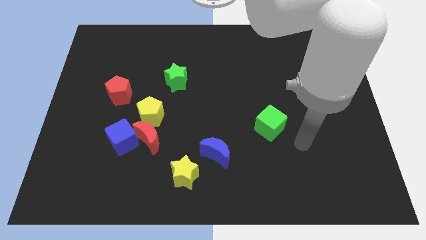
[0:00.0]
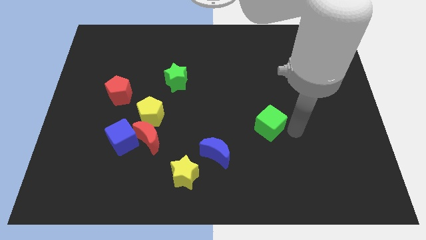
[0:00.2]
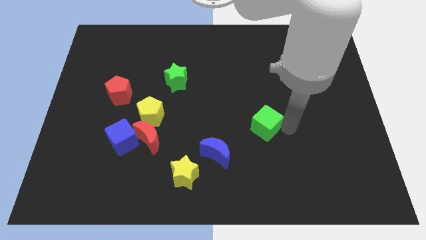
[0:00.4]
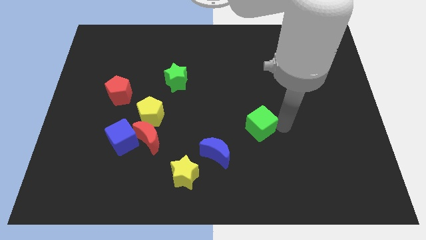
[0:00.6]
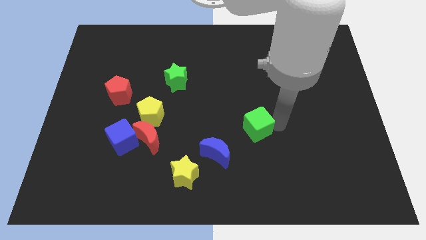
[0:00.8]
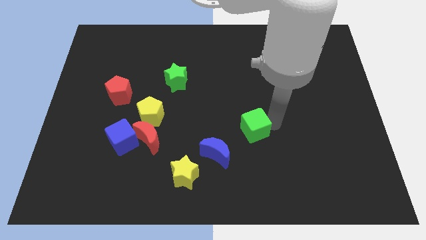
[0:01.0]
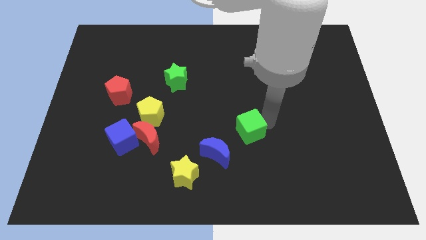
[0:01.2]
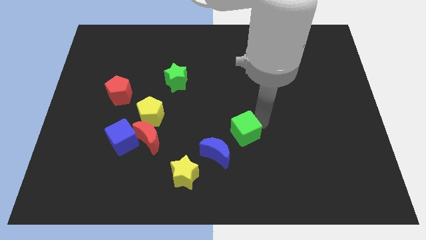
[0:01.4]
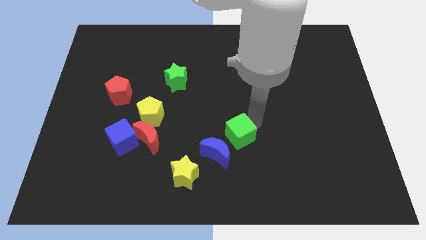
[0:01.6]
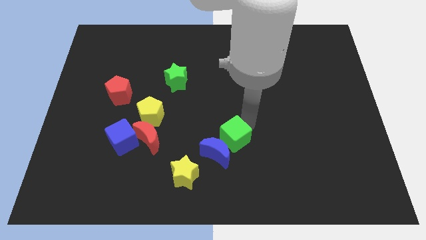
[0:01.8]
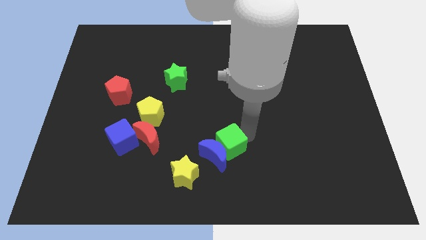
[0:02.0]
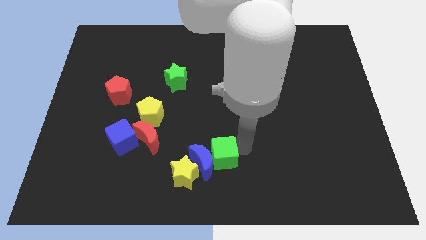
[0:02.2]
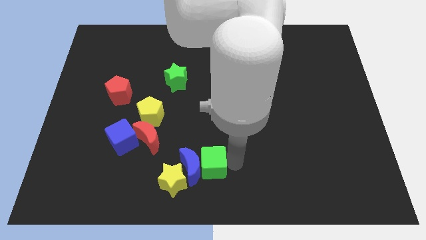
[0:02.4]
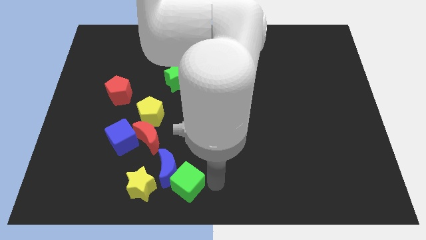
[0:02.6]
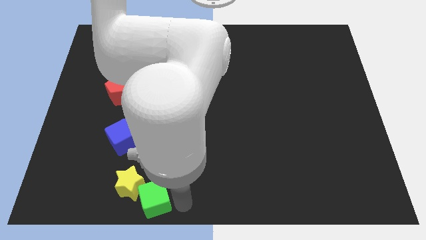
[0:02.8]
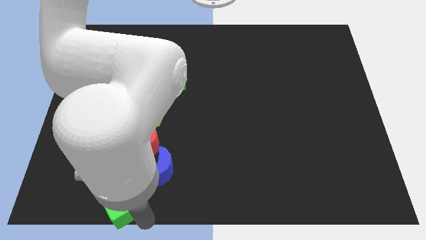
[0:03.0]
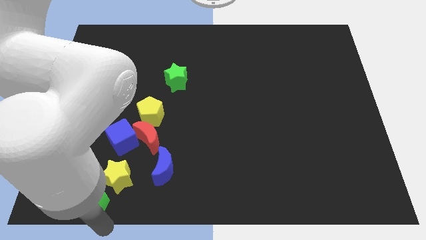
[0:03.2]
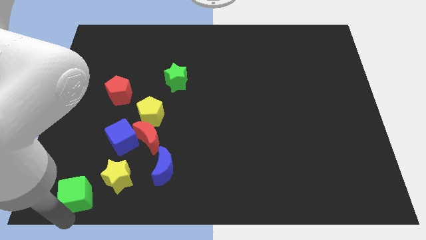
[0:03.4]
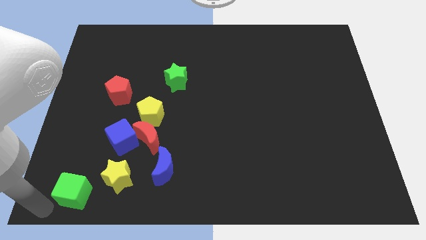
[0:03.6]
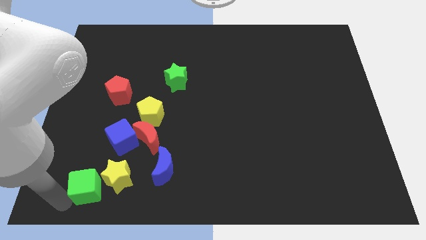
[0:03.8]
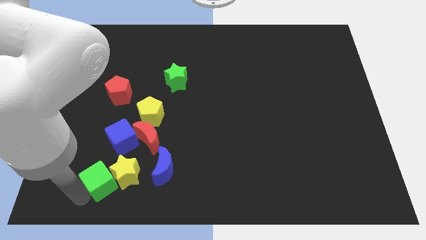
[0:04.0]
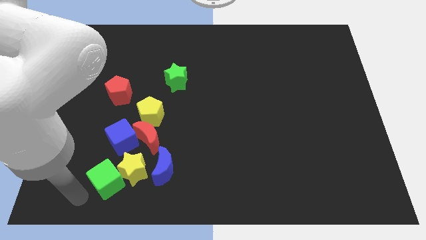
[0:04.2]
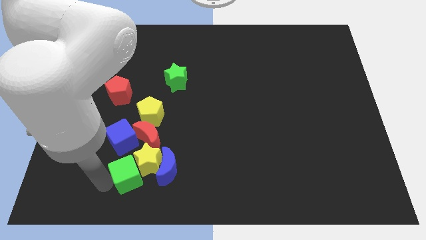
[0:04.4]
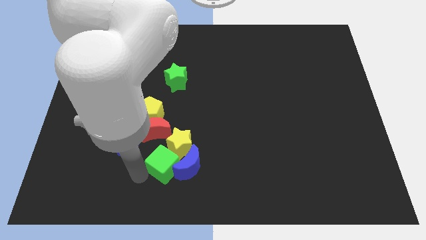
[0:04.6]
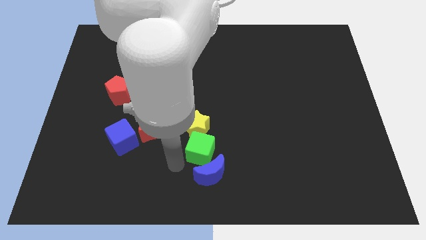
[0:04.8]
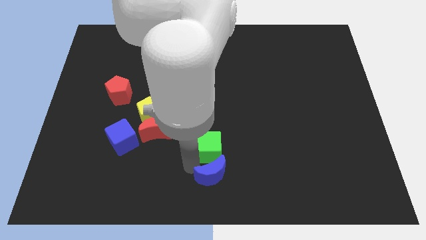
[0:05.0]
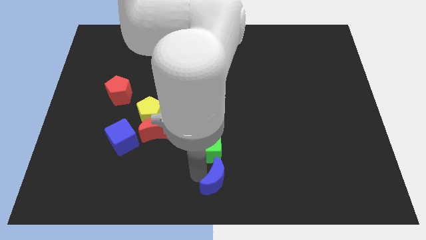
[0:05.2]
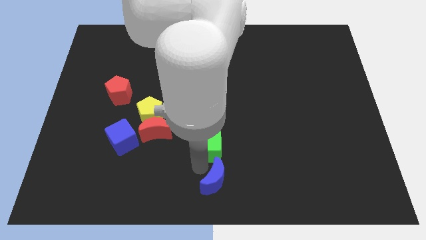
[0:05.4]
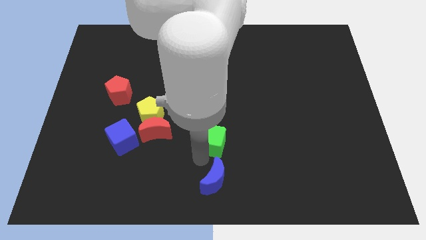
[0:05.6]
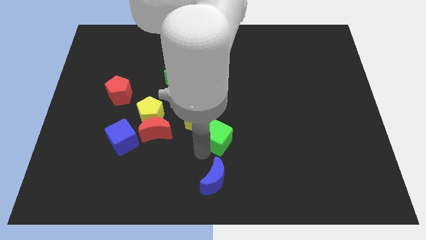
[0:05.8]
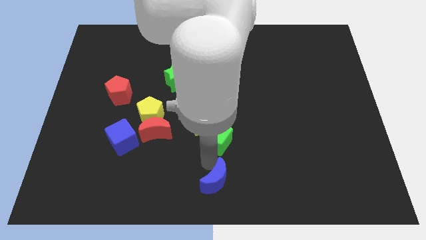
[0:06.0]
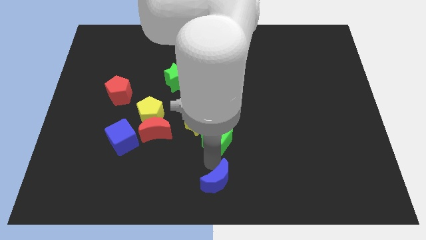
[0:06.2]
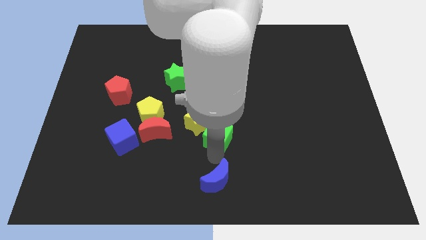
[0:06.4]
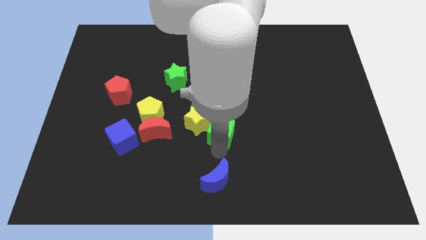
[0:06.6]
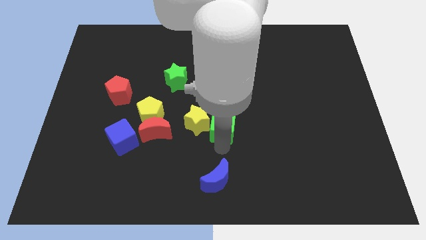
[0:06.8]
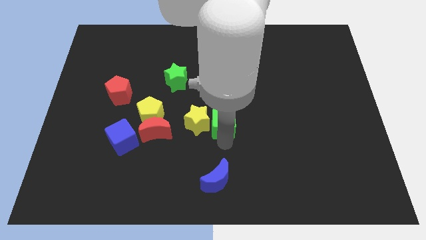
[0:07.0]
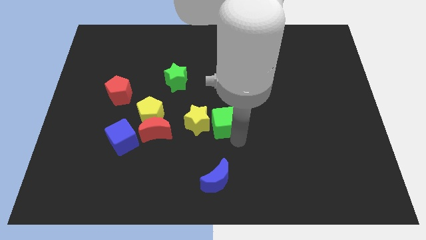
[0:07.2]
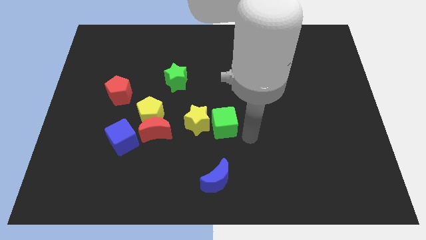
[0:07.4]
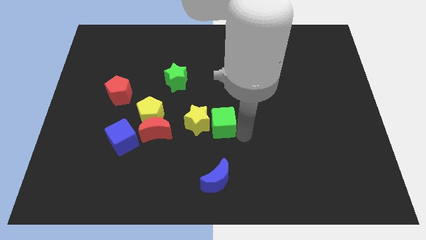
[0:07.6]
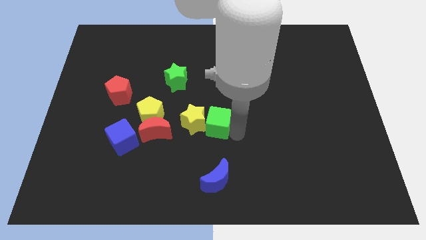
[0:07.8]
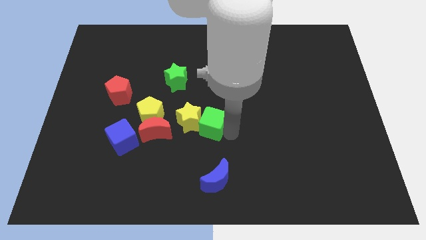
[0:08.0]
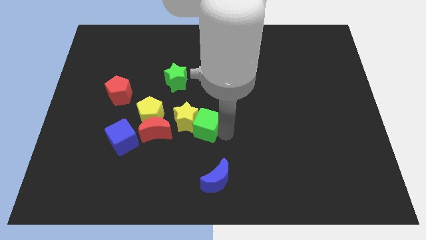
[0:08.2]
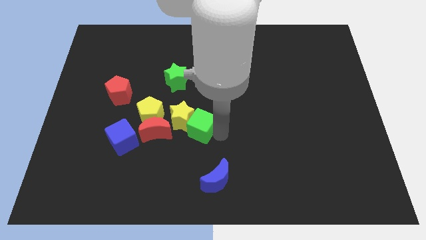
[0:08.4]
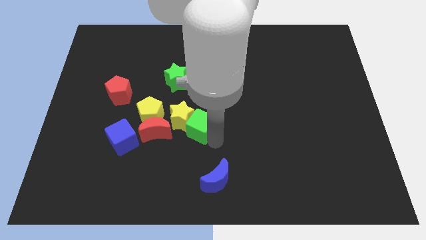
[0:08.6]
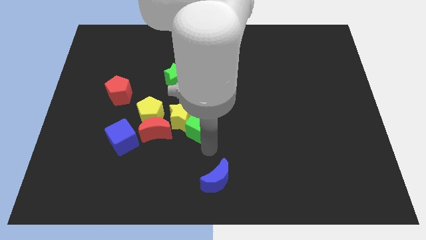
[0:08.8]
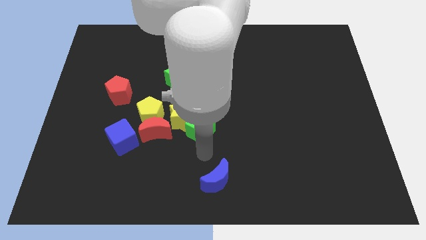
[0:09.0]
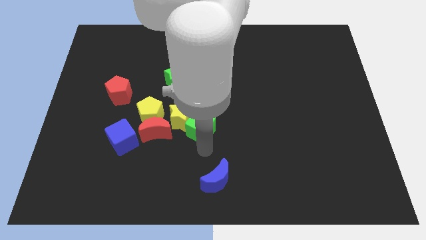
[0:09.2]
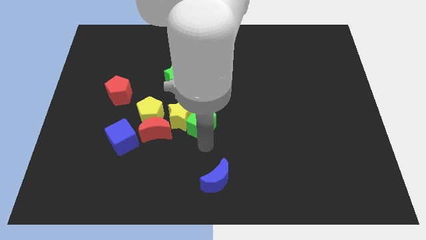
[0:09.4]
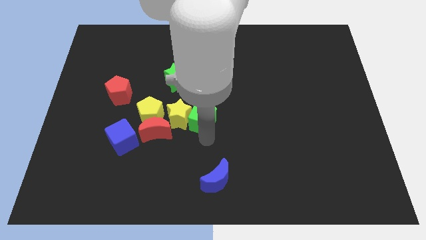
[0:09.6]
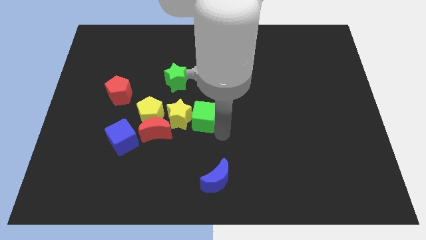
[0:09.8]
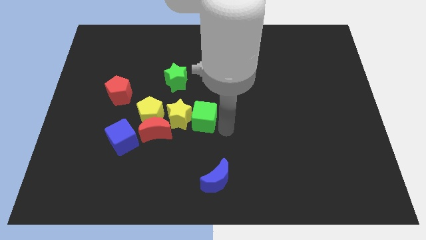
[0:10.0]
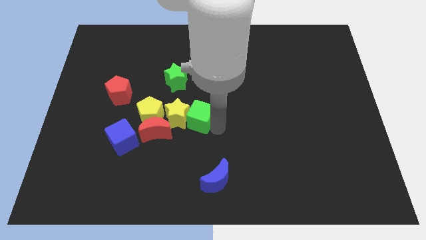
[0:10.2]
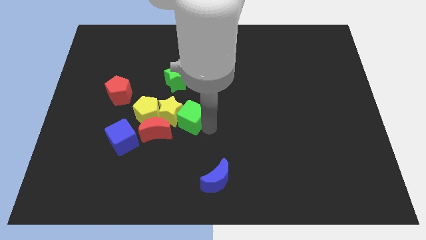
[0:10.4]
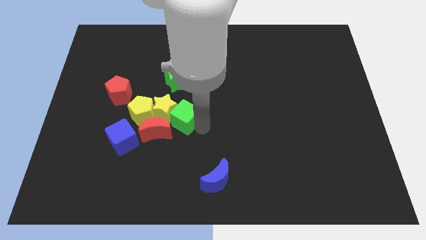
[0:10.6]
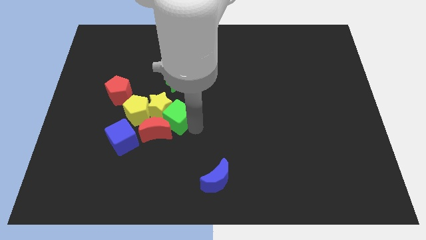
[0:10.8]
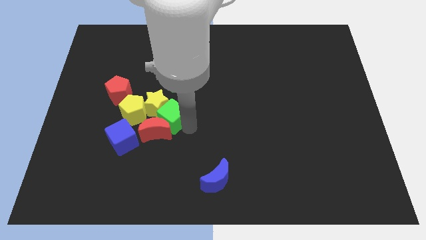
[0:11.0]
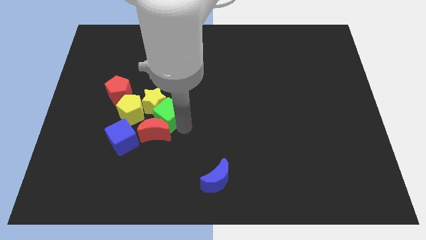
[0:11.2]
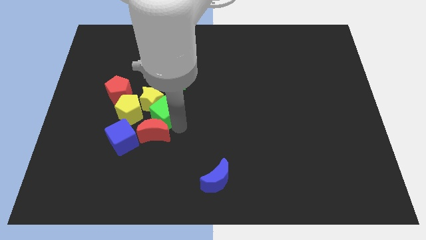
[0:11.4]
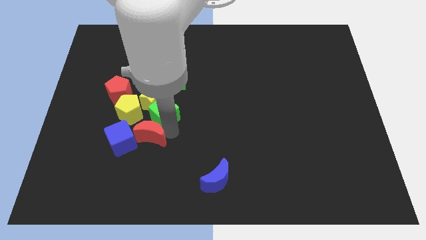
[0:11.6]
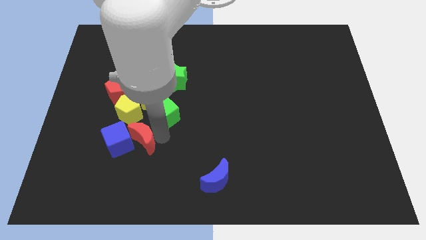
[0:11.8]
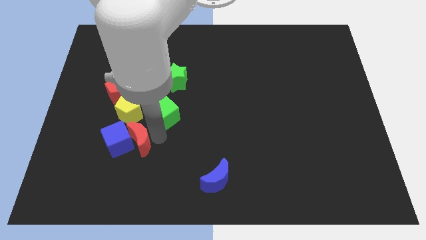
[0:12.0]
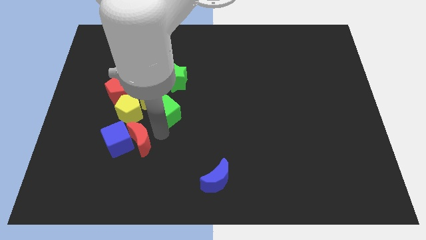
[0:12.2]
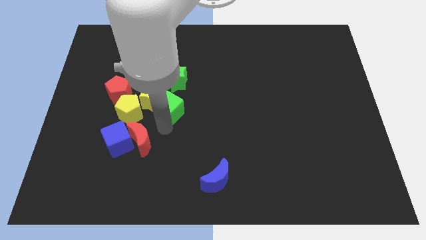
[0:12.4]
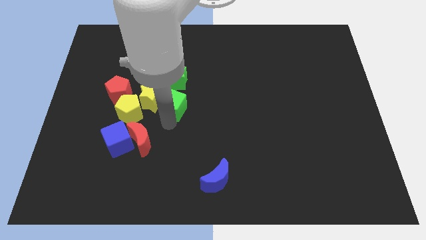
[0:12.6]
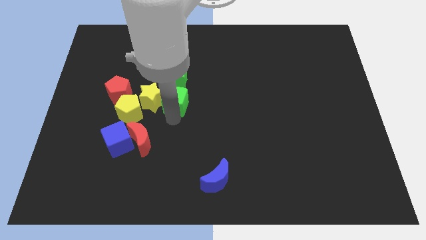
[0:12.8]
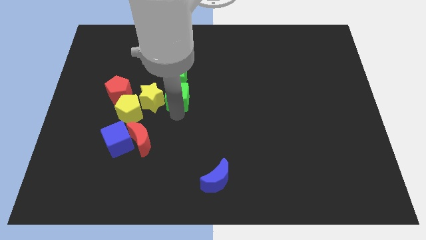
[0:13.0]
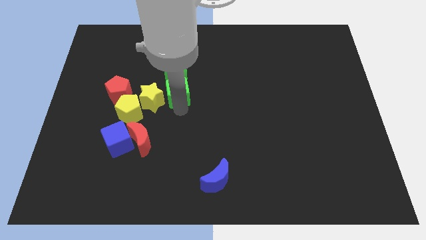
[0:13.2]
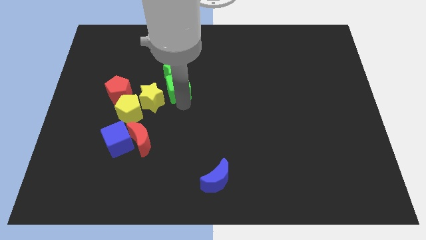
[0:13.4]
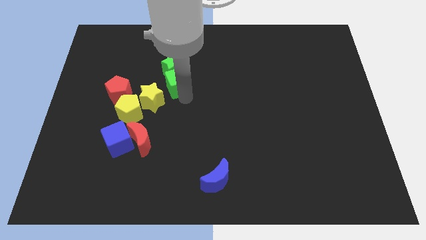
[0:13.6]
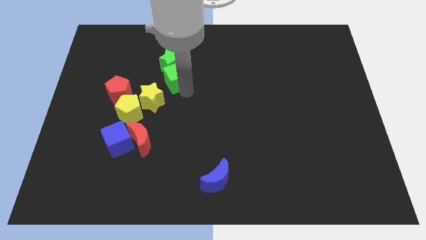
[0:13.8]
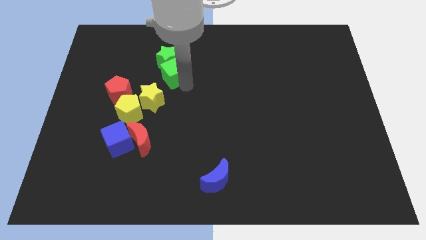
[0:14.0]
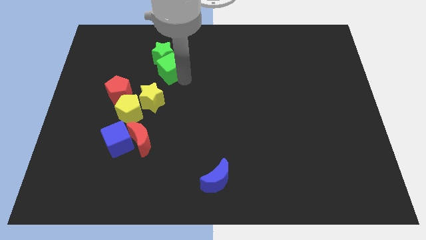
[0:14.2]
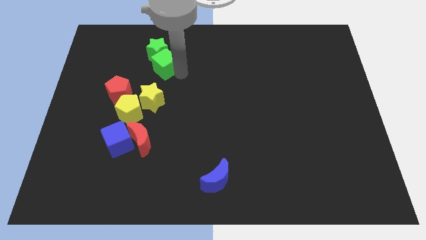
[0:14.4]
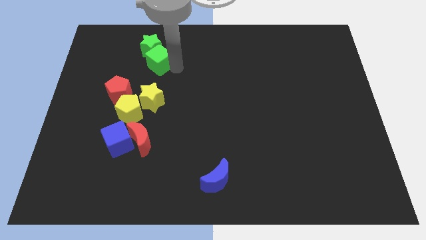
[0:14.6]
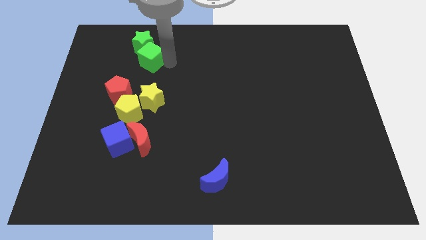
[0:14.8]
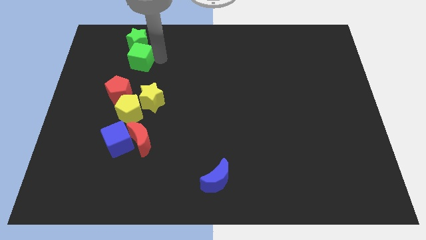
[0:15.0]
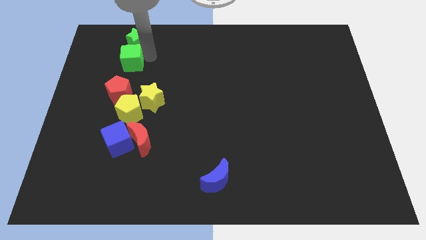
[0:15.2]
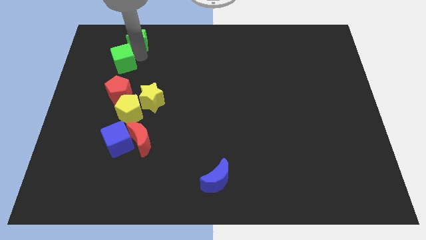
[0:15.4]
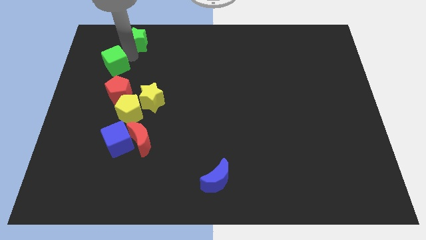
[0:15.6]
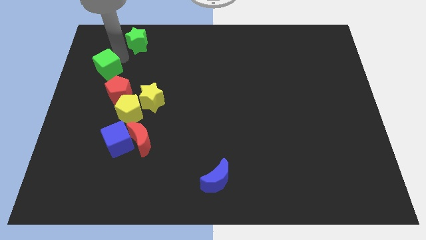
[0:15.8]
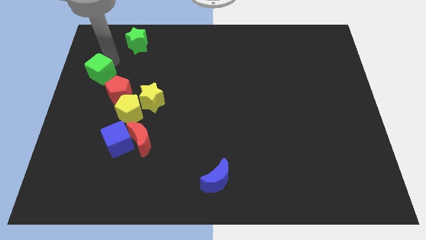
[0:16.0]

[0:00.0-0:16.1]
slide the green cube to the left side of the board
